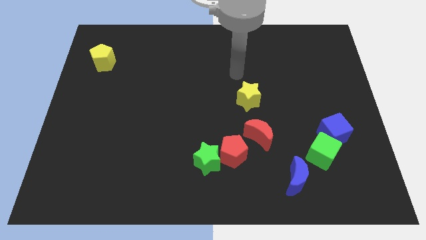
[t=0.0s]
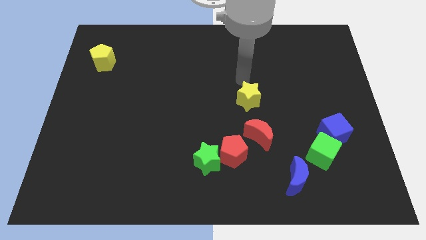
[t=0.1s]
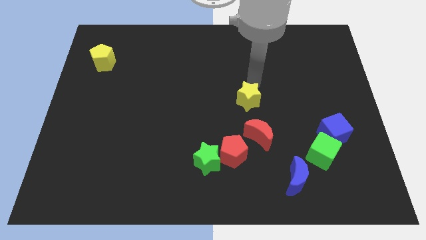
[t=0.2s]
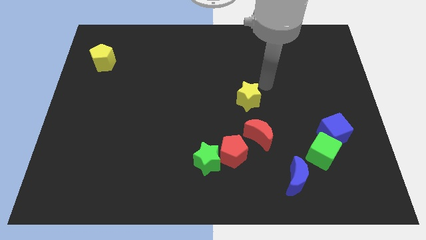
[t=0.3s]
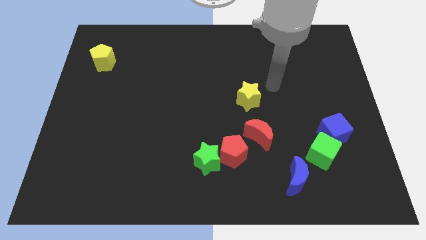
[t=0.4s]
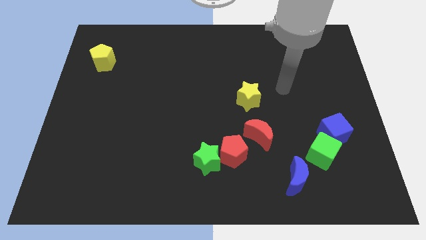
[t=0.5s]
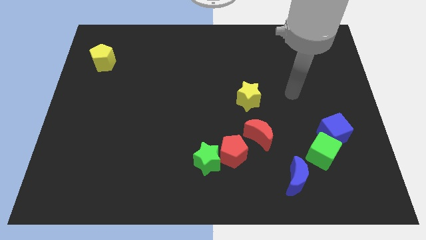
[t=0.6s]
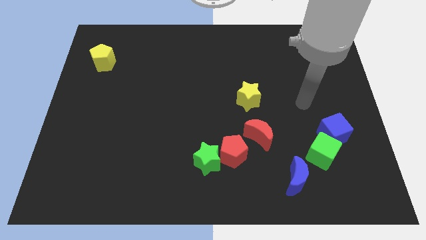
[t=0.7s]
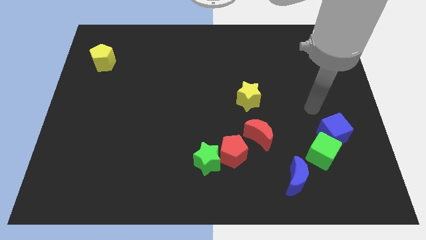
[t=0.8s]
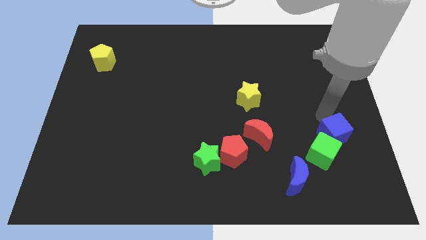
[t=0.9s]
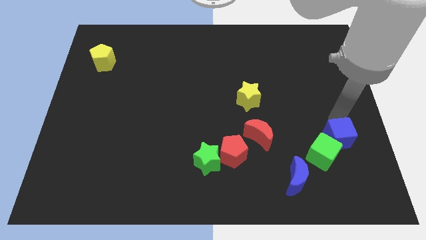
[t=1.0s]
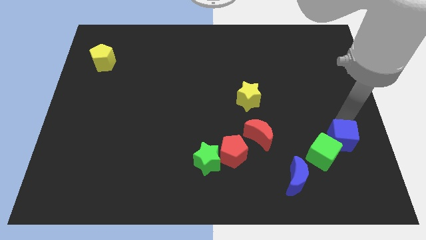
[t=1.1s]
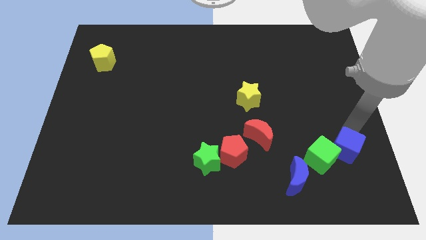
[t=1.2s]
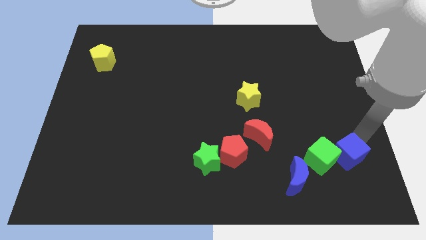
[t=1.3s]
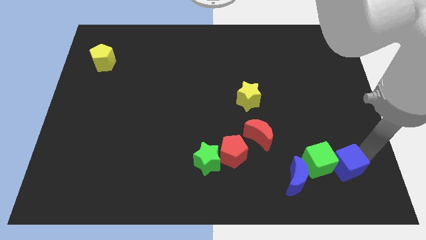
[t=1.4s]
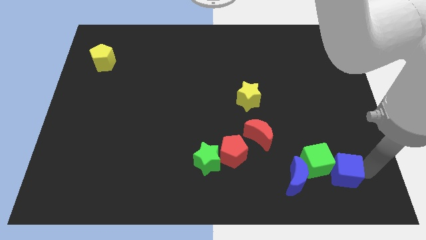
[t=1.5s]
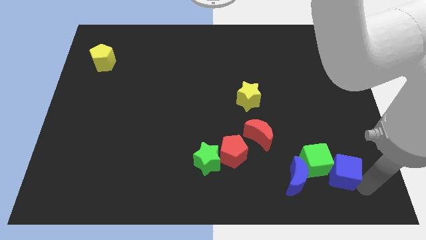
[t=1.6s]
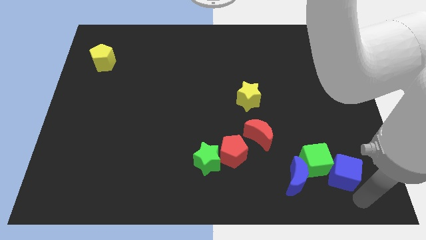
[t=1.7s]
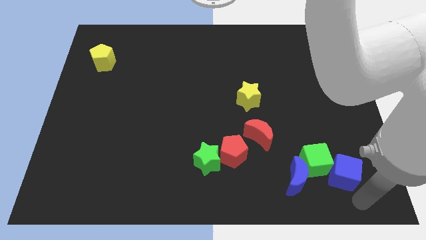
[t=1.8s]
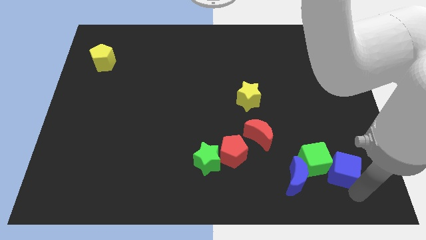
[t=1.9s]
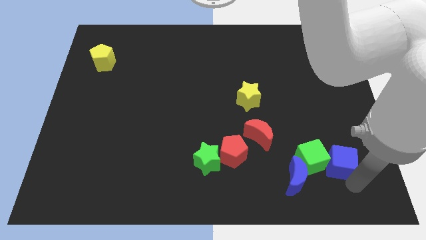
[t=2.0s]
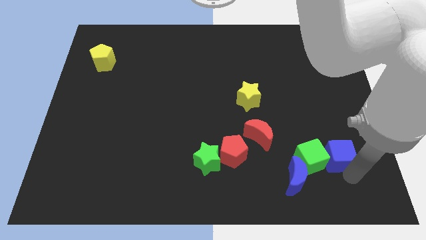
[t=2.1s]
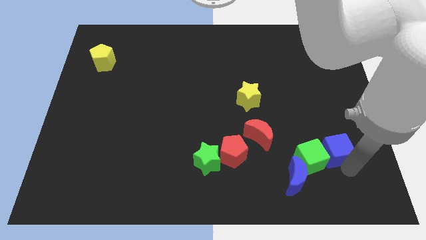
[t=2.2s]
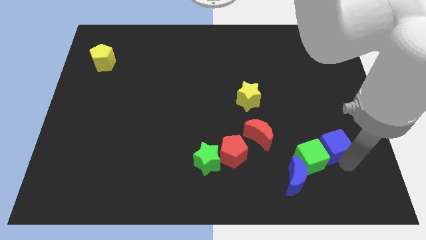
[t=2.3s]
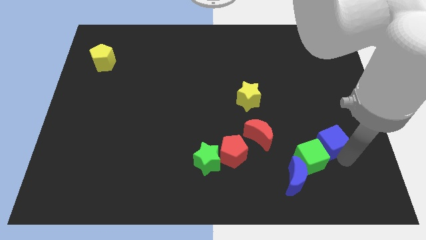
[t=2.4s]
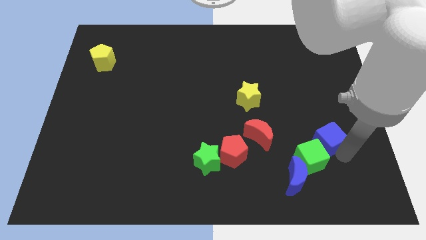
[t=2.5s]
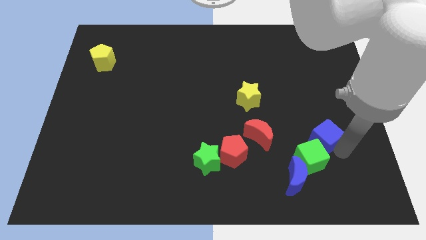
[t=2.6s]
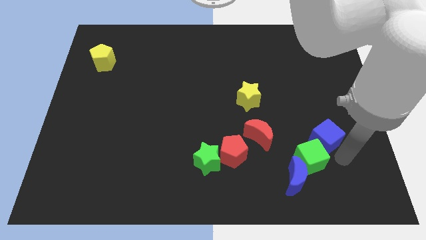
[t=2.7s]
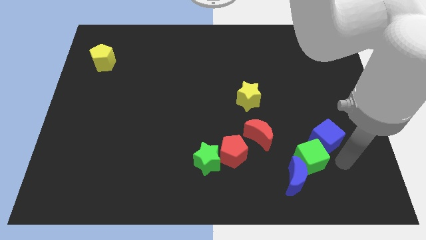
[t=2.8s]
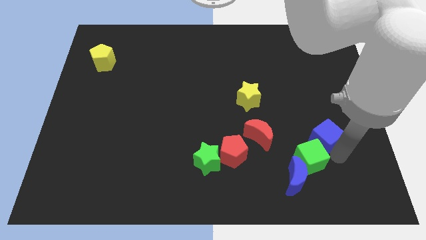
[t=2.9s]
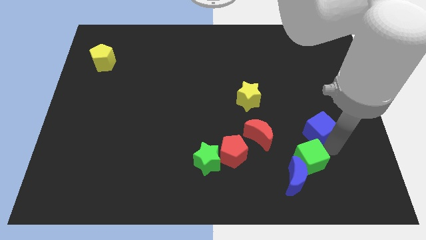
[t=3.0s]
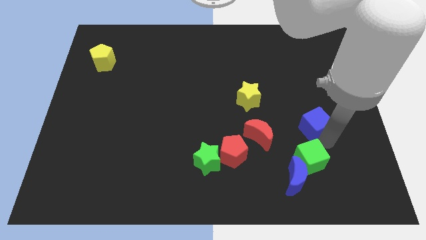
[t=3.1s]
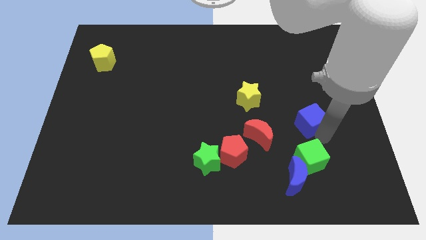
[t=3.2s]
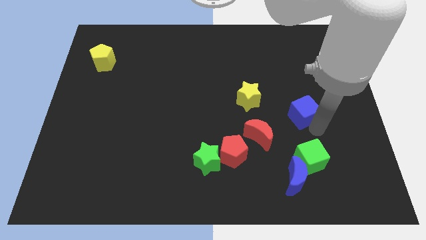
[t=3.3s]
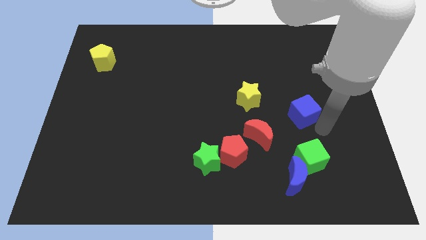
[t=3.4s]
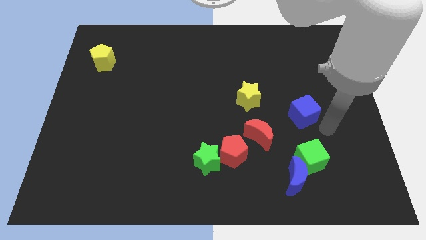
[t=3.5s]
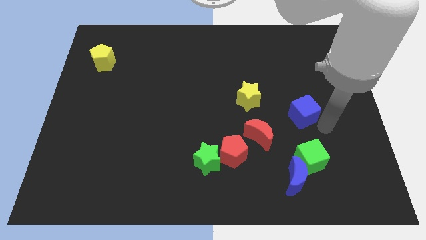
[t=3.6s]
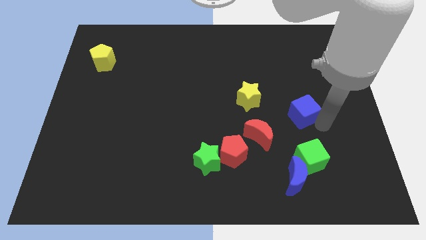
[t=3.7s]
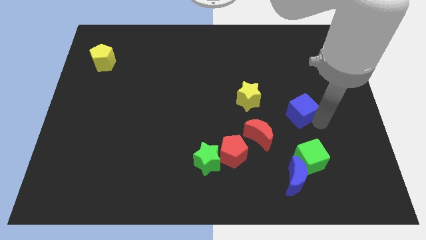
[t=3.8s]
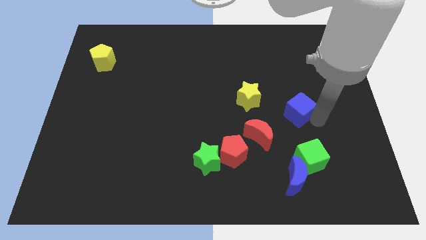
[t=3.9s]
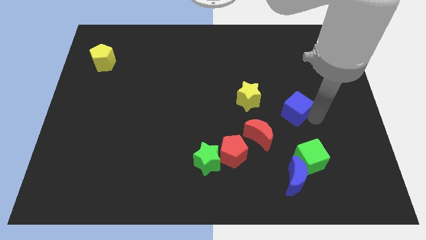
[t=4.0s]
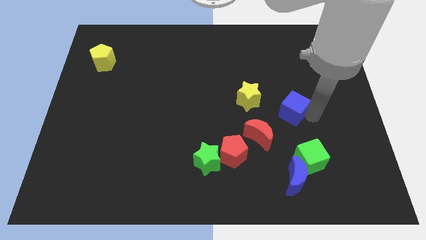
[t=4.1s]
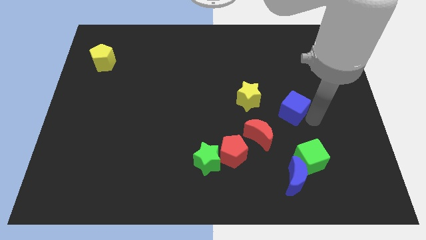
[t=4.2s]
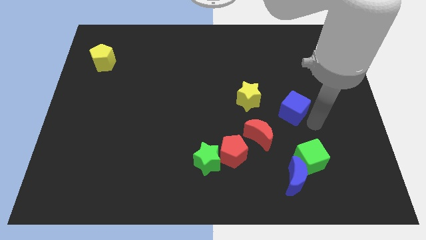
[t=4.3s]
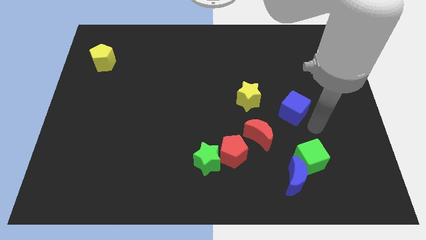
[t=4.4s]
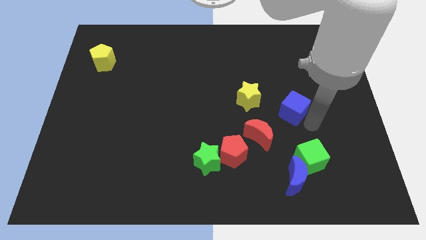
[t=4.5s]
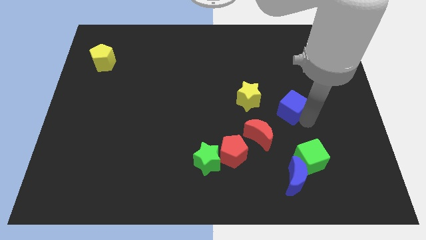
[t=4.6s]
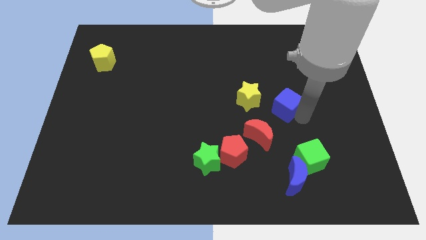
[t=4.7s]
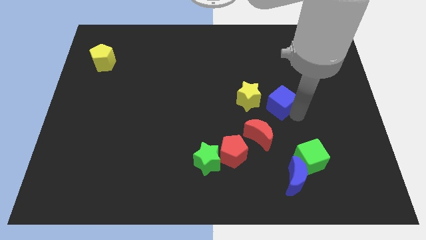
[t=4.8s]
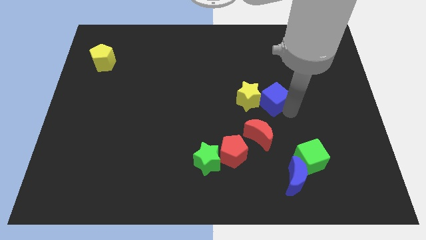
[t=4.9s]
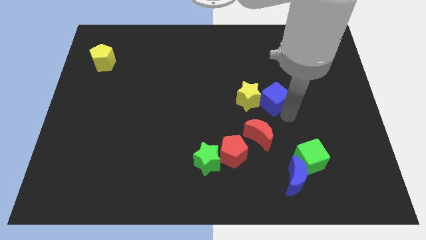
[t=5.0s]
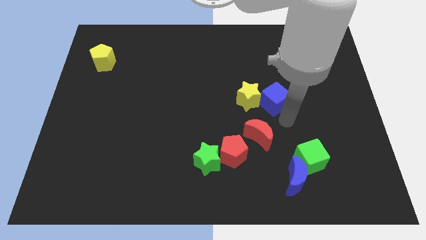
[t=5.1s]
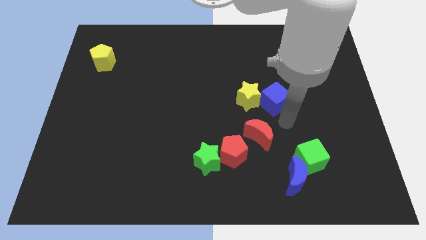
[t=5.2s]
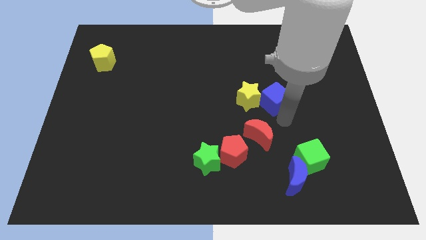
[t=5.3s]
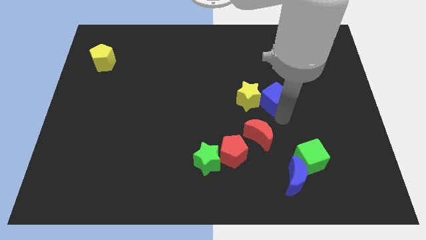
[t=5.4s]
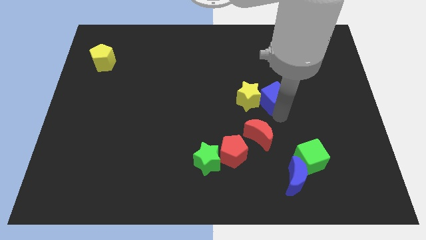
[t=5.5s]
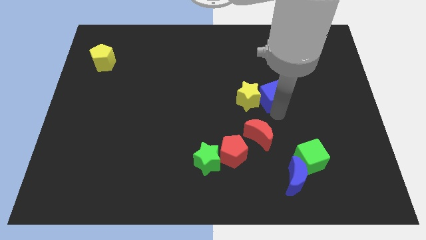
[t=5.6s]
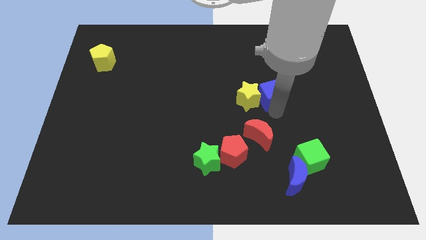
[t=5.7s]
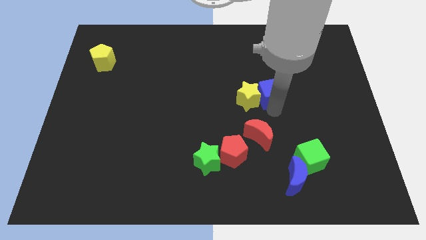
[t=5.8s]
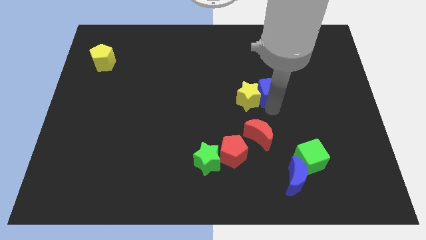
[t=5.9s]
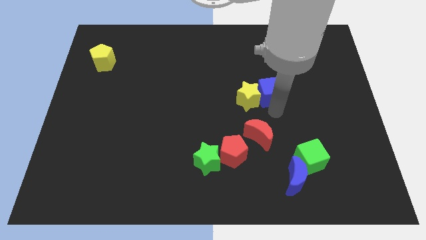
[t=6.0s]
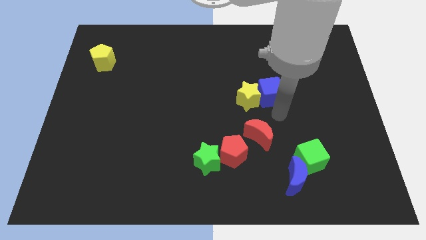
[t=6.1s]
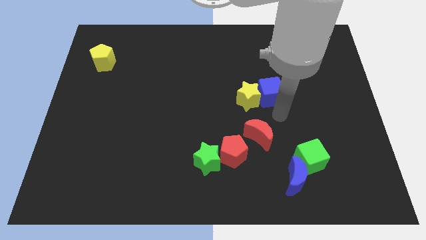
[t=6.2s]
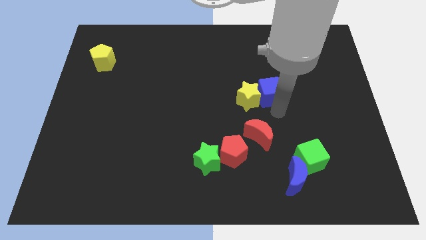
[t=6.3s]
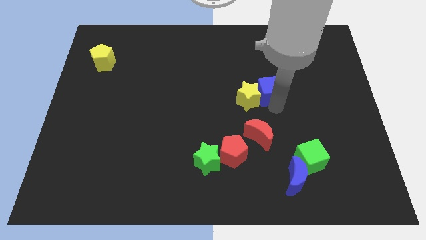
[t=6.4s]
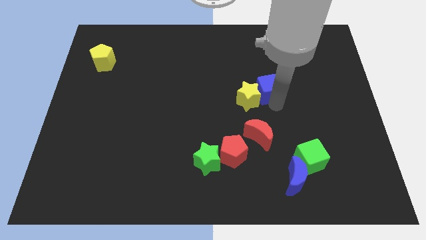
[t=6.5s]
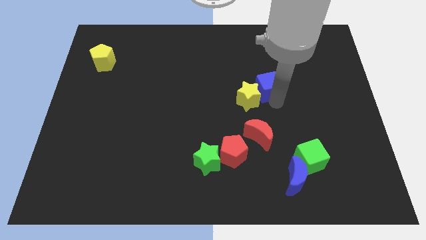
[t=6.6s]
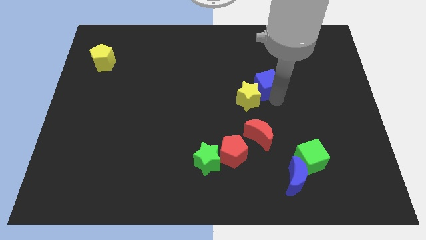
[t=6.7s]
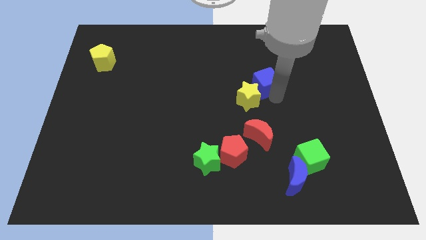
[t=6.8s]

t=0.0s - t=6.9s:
slide the blue cube up and to the left

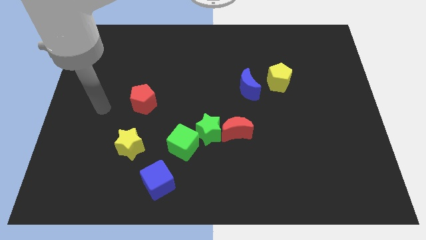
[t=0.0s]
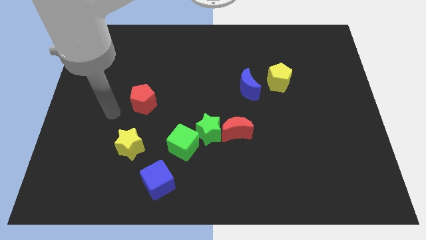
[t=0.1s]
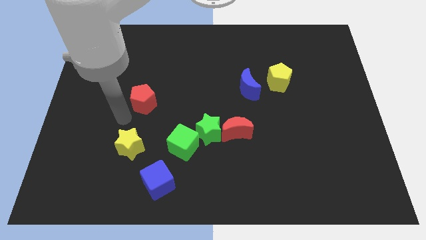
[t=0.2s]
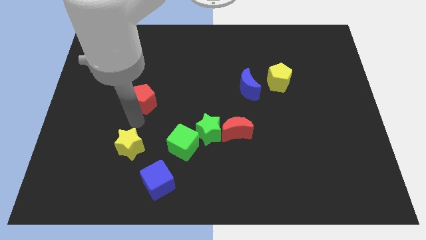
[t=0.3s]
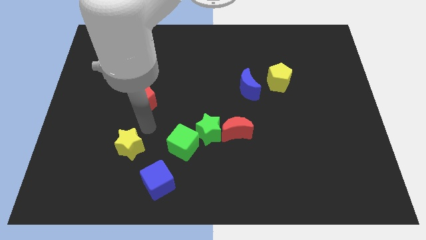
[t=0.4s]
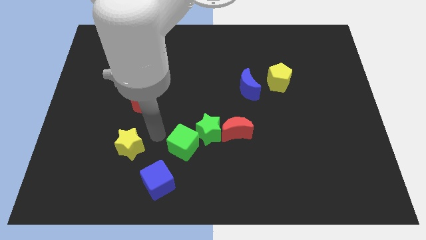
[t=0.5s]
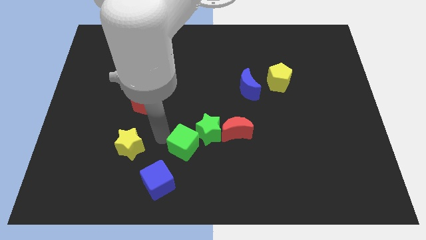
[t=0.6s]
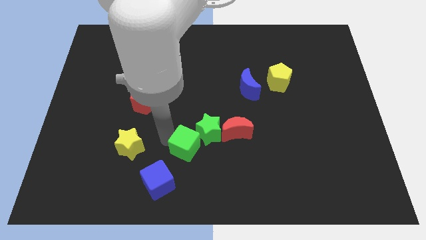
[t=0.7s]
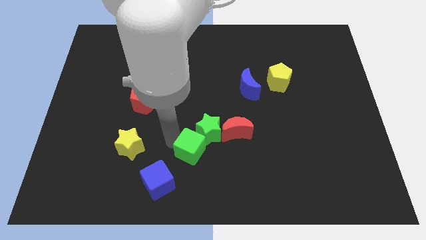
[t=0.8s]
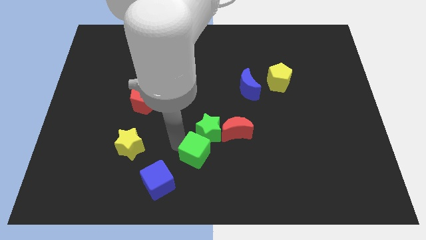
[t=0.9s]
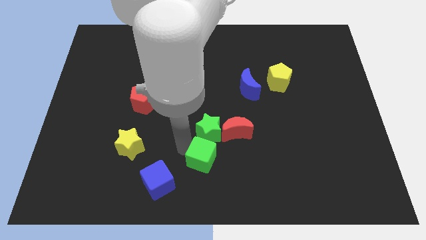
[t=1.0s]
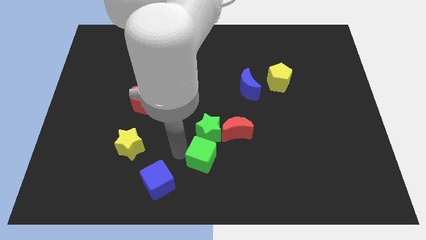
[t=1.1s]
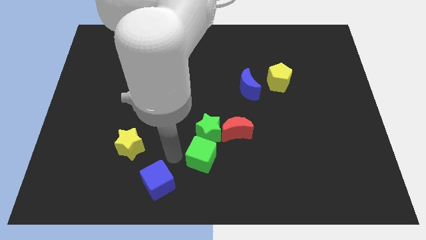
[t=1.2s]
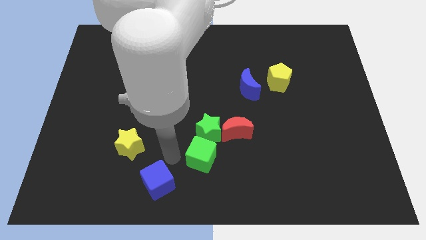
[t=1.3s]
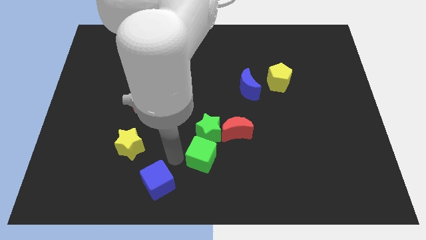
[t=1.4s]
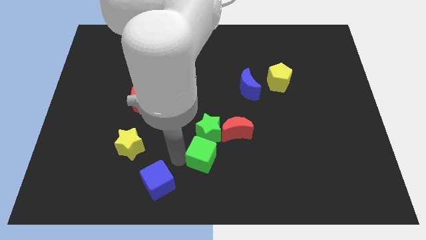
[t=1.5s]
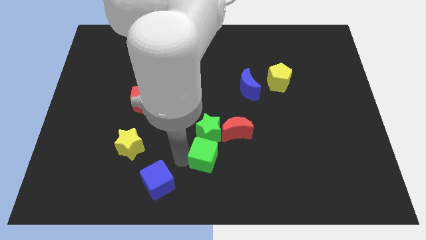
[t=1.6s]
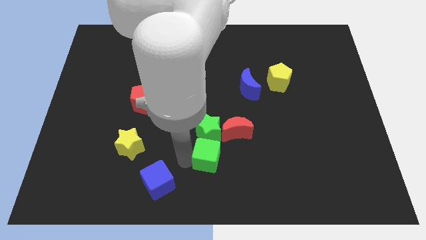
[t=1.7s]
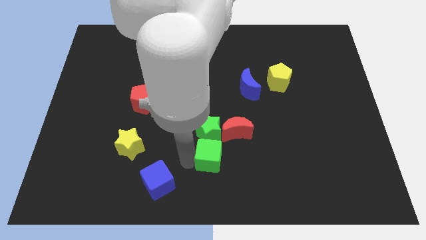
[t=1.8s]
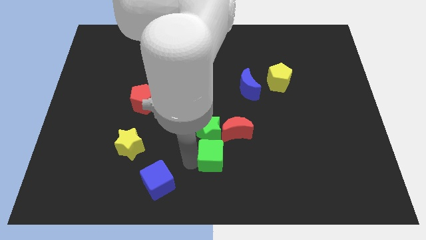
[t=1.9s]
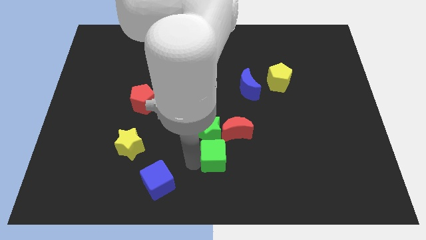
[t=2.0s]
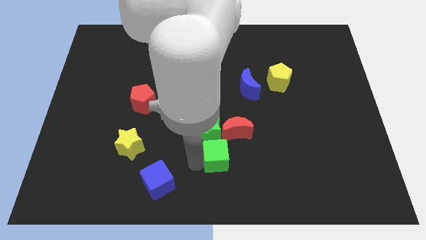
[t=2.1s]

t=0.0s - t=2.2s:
move the green cube right a little
